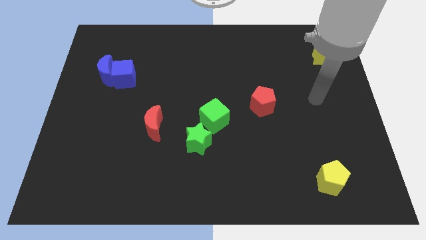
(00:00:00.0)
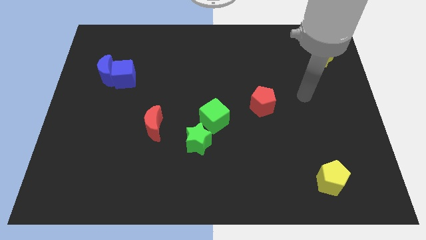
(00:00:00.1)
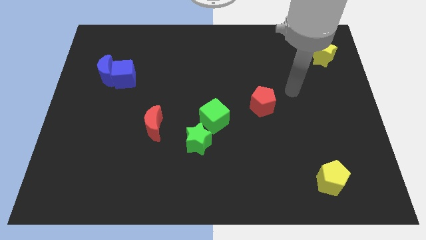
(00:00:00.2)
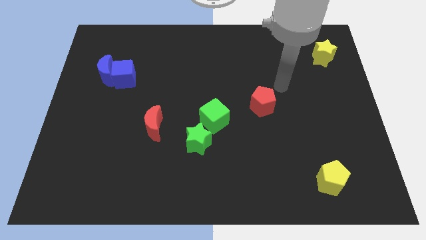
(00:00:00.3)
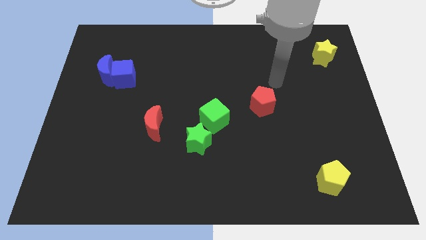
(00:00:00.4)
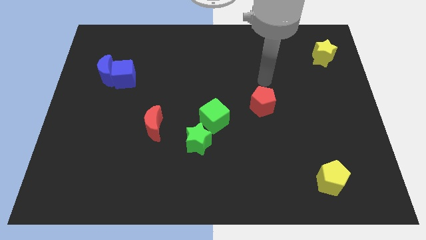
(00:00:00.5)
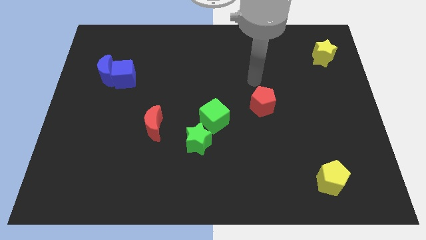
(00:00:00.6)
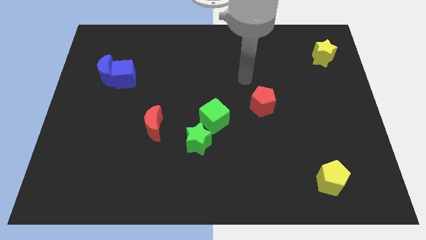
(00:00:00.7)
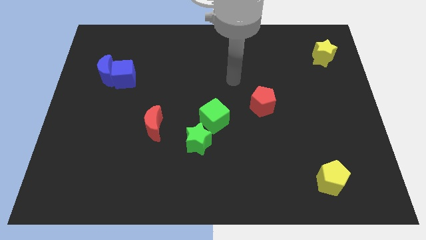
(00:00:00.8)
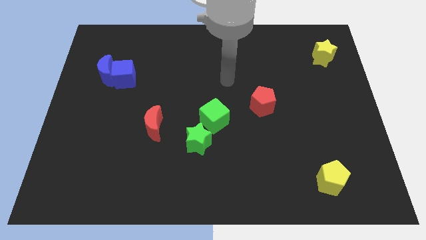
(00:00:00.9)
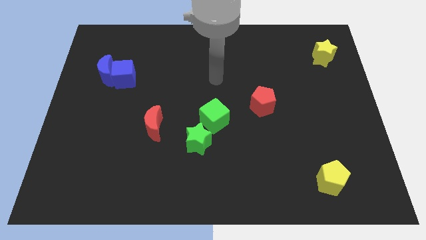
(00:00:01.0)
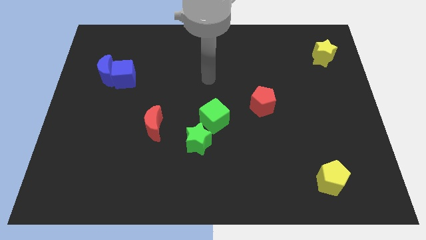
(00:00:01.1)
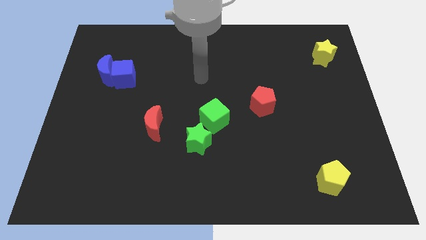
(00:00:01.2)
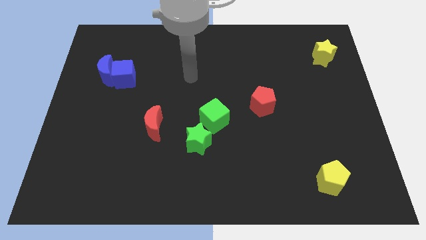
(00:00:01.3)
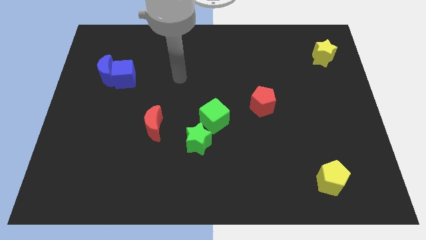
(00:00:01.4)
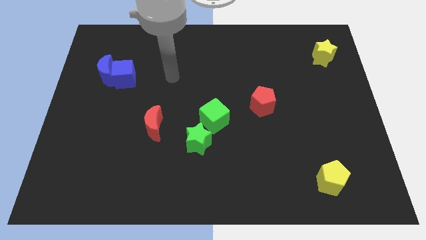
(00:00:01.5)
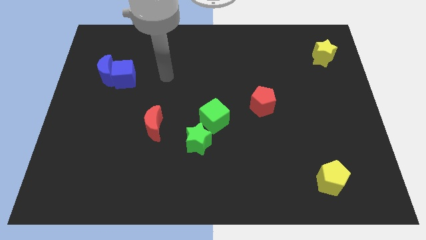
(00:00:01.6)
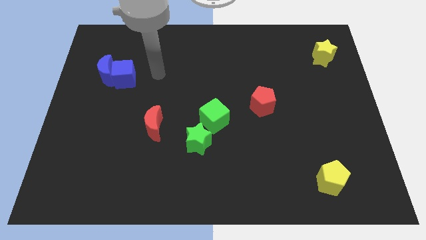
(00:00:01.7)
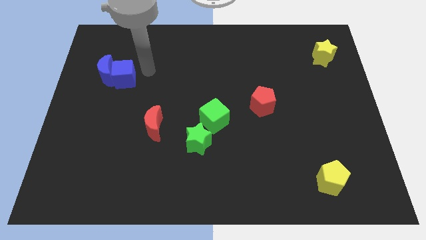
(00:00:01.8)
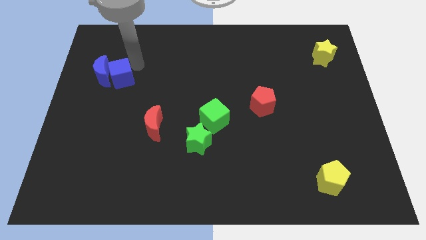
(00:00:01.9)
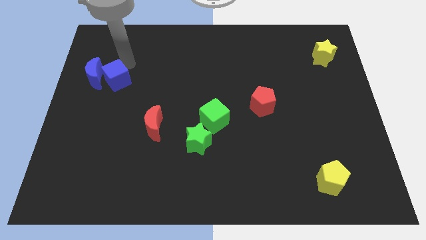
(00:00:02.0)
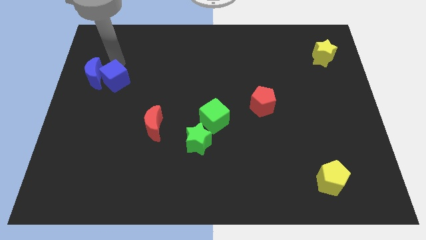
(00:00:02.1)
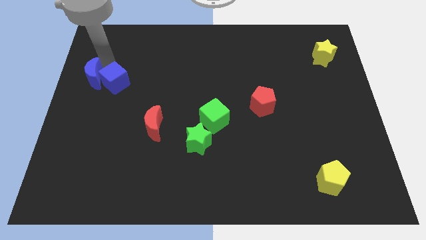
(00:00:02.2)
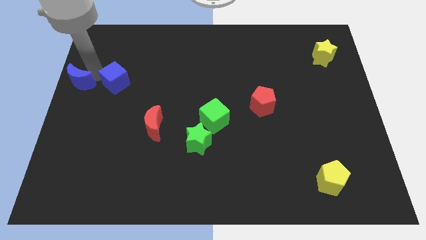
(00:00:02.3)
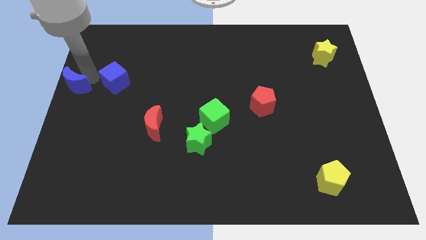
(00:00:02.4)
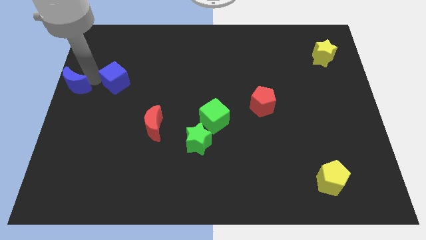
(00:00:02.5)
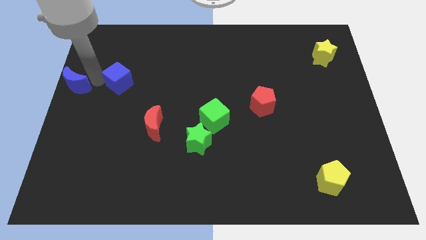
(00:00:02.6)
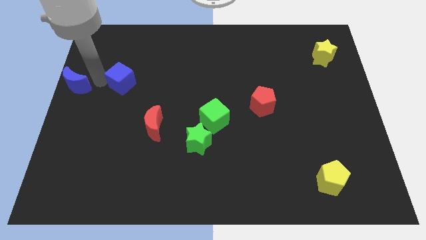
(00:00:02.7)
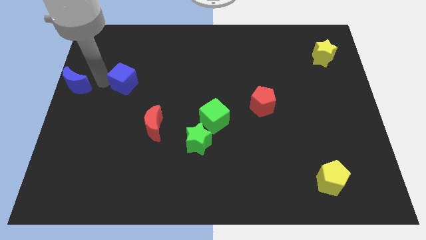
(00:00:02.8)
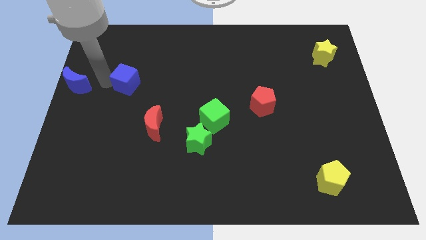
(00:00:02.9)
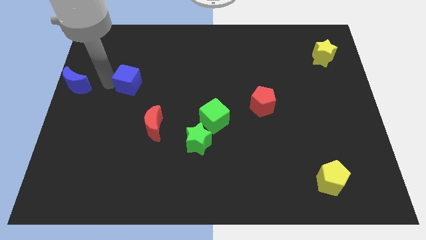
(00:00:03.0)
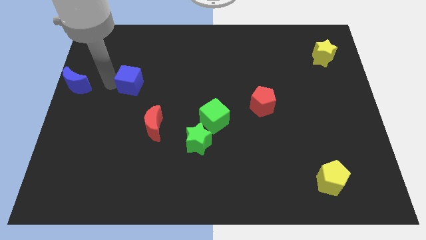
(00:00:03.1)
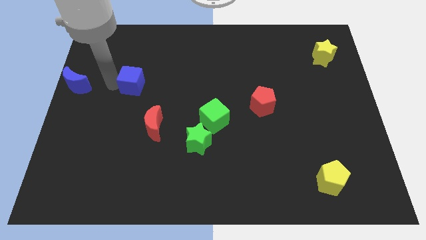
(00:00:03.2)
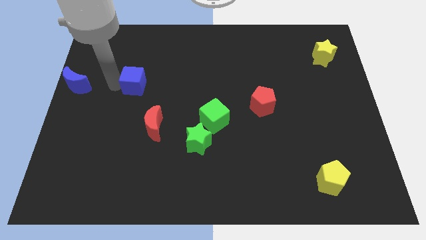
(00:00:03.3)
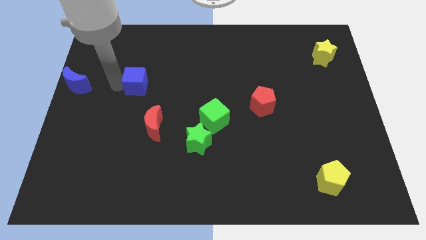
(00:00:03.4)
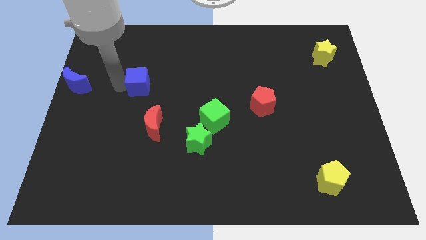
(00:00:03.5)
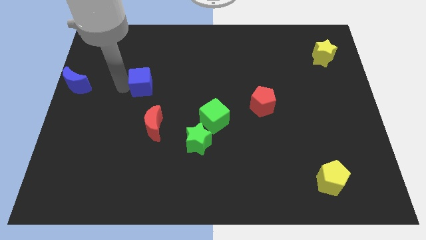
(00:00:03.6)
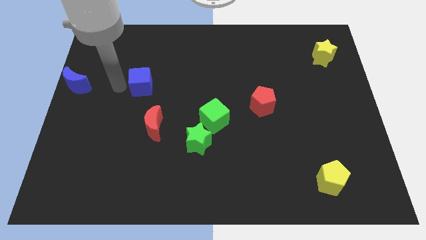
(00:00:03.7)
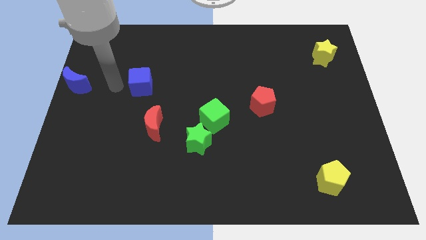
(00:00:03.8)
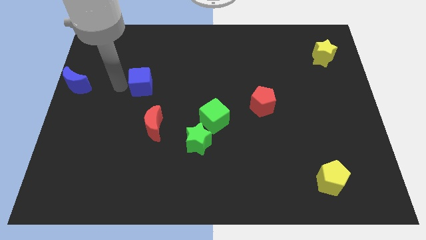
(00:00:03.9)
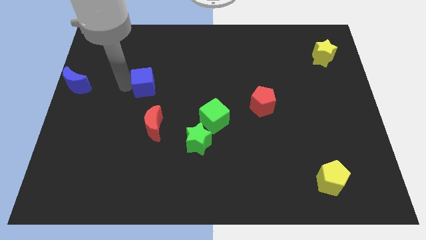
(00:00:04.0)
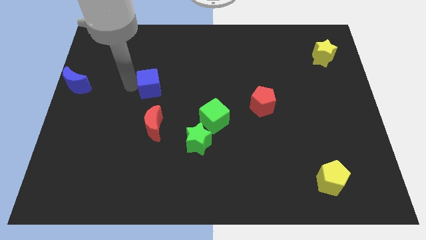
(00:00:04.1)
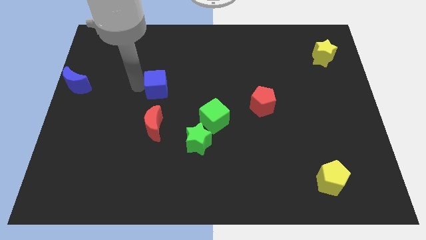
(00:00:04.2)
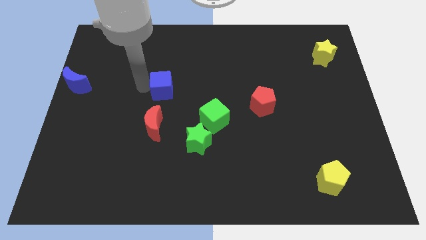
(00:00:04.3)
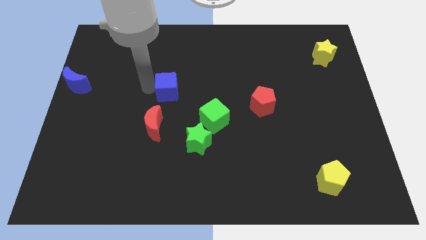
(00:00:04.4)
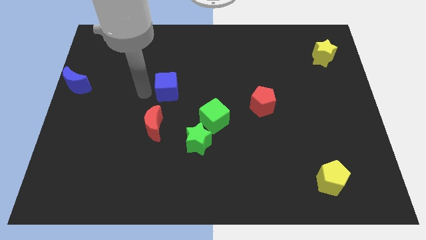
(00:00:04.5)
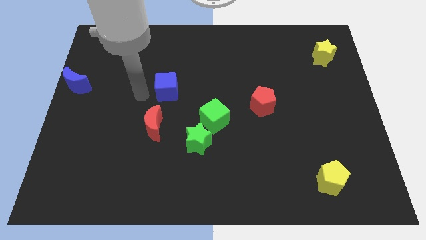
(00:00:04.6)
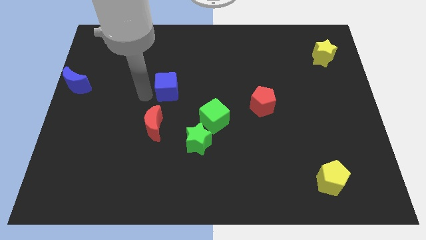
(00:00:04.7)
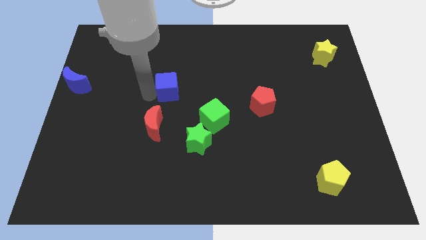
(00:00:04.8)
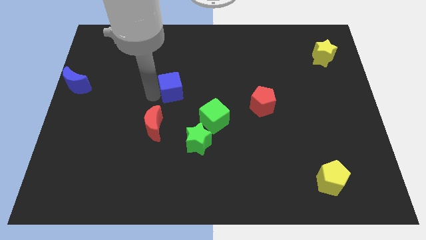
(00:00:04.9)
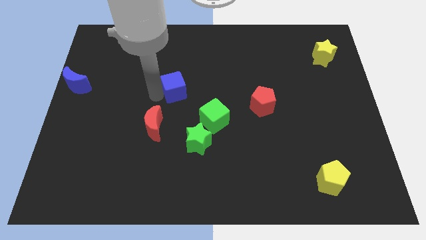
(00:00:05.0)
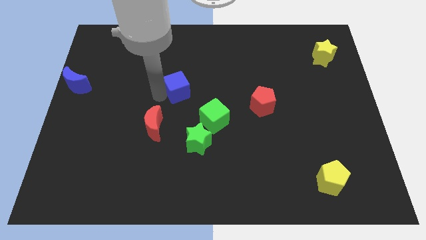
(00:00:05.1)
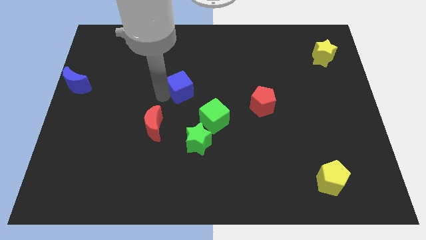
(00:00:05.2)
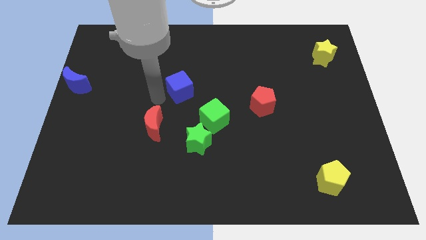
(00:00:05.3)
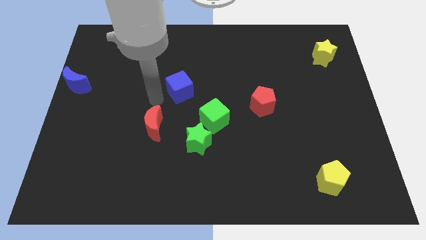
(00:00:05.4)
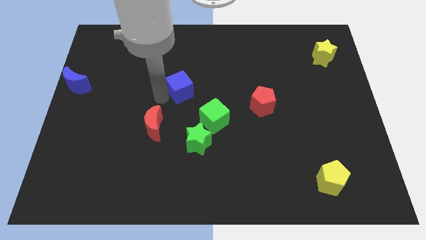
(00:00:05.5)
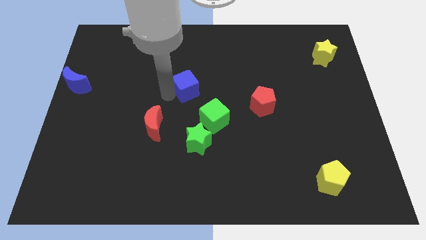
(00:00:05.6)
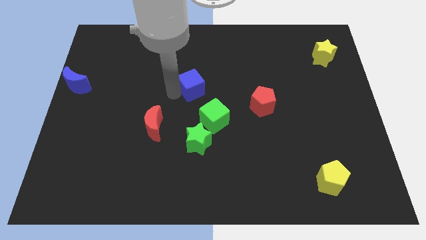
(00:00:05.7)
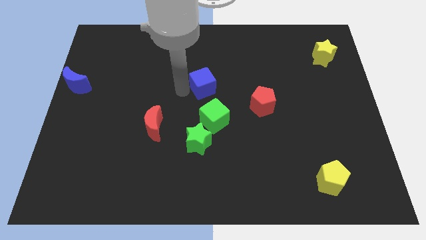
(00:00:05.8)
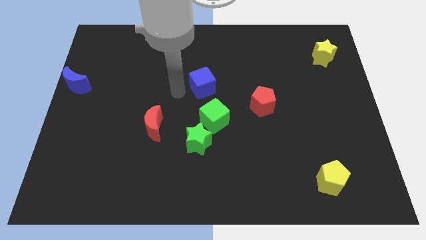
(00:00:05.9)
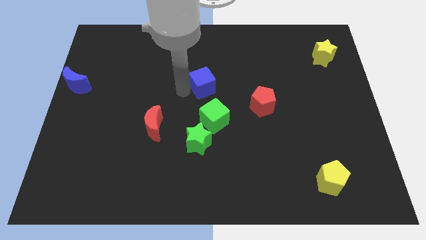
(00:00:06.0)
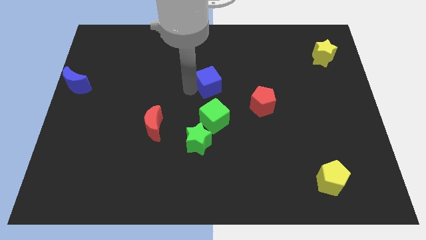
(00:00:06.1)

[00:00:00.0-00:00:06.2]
move the blue cube right

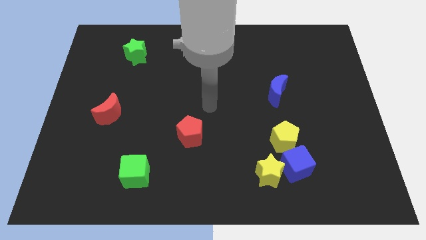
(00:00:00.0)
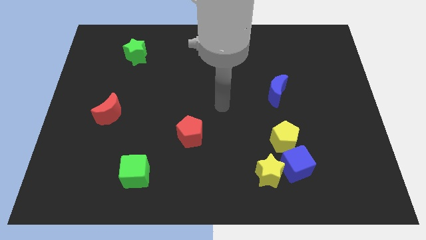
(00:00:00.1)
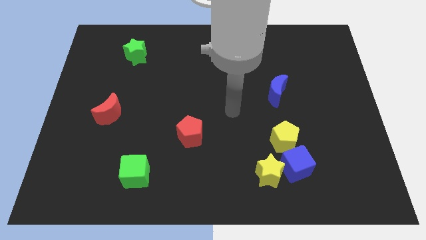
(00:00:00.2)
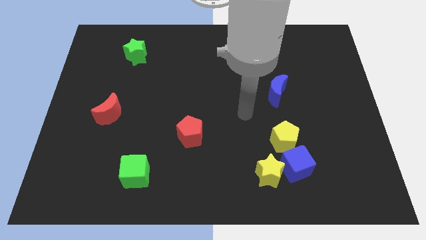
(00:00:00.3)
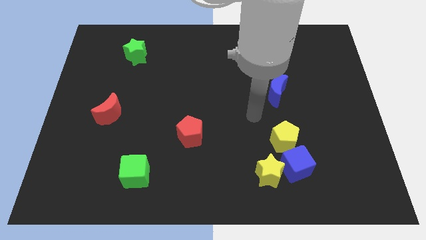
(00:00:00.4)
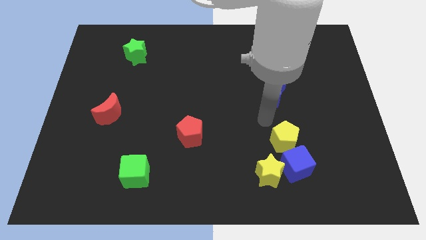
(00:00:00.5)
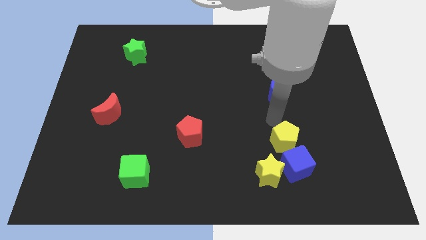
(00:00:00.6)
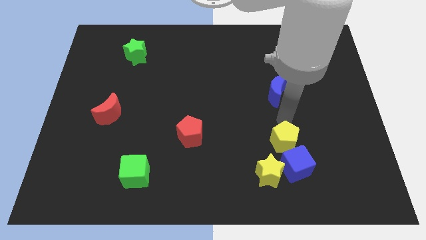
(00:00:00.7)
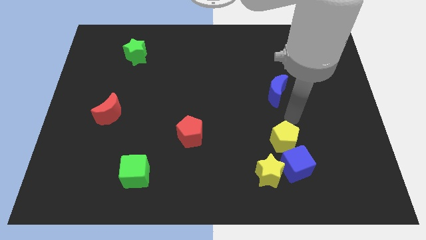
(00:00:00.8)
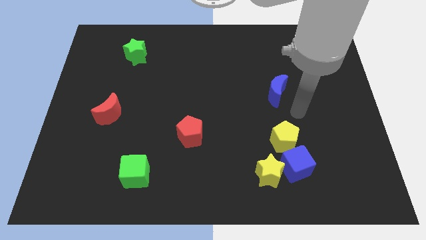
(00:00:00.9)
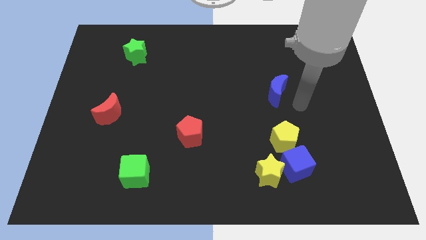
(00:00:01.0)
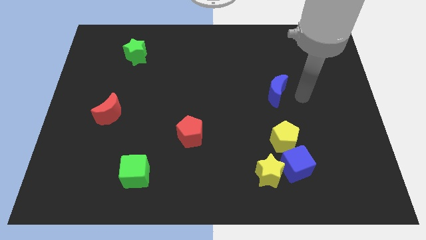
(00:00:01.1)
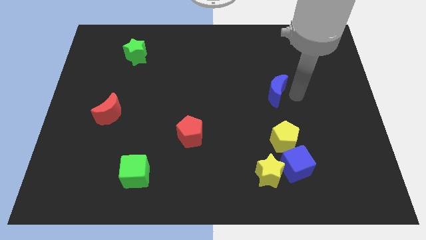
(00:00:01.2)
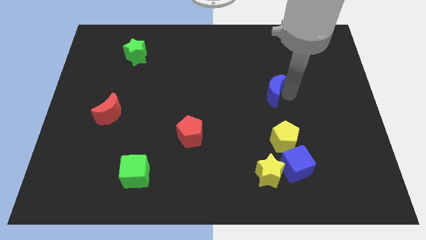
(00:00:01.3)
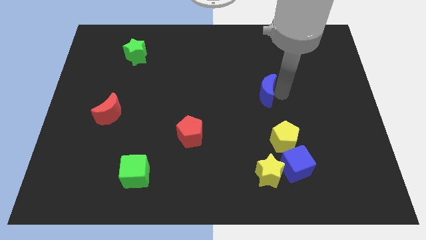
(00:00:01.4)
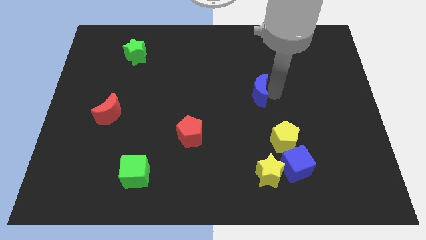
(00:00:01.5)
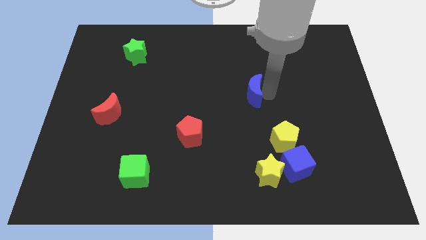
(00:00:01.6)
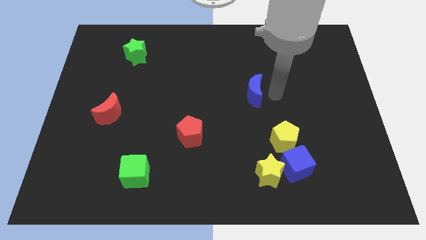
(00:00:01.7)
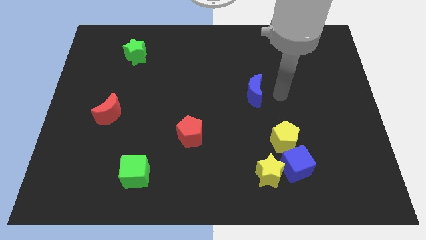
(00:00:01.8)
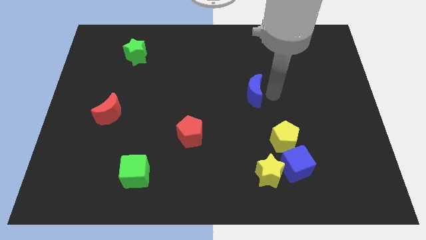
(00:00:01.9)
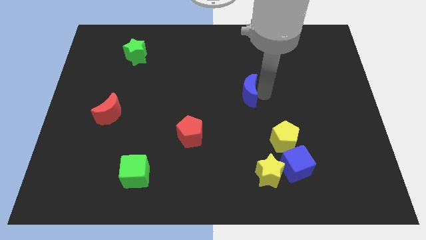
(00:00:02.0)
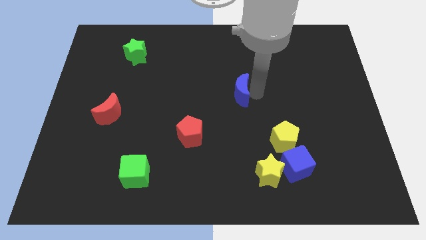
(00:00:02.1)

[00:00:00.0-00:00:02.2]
push the blue moon left somewhat

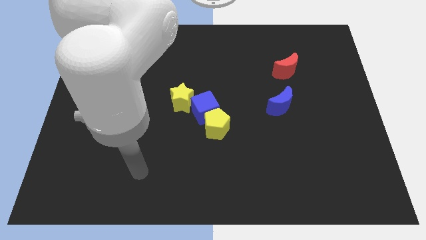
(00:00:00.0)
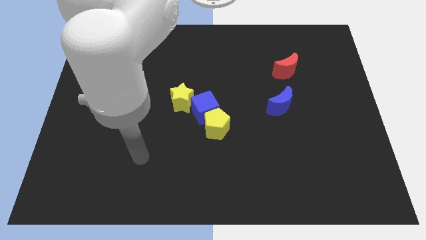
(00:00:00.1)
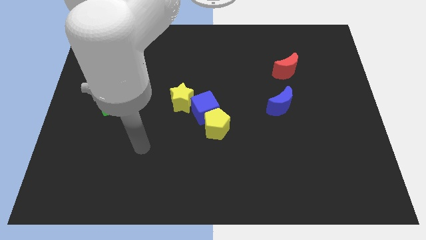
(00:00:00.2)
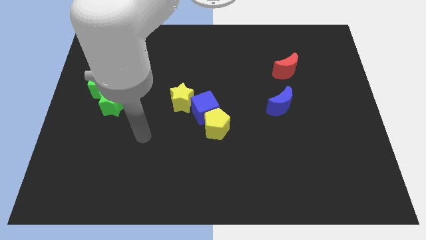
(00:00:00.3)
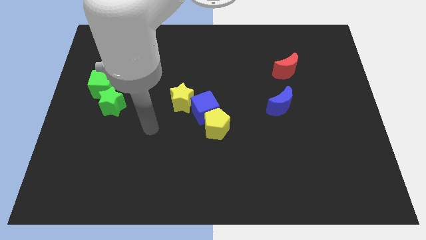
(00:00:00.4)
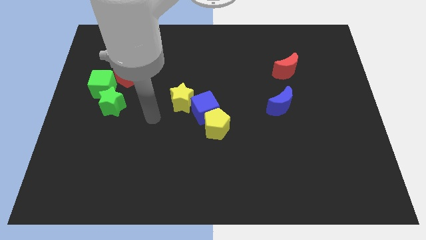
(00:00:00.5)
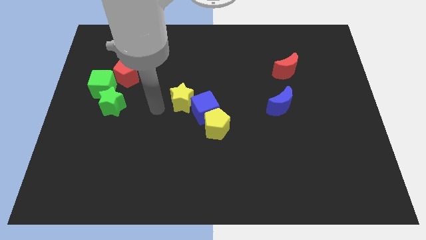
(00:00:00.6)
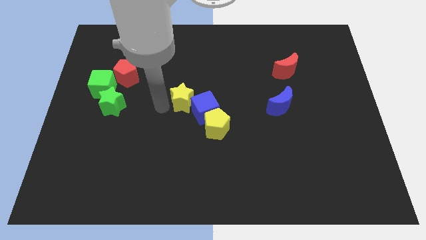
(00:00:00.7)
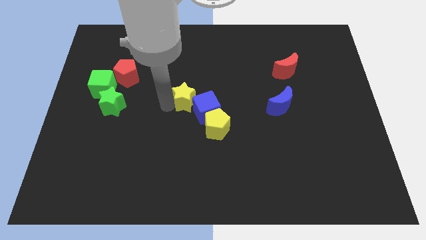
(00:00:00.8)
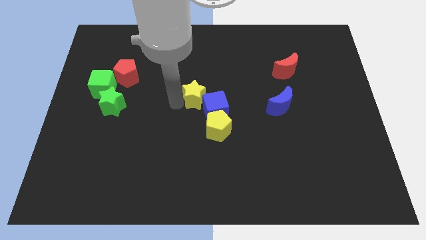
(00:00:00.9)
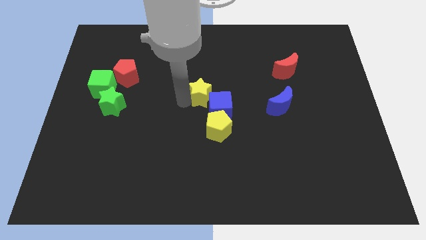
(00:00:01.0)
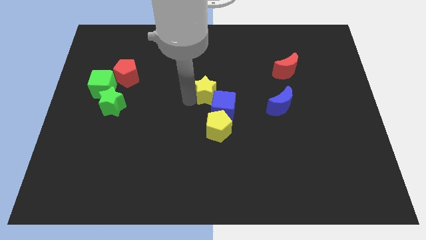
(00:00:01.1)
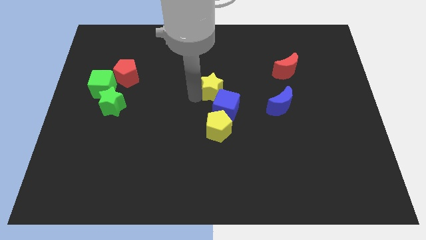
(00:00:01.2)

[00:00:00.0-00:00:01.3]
slightly slide the yellow star right
